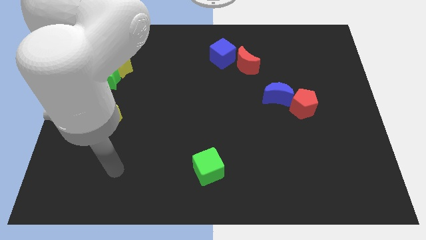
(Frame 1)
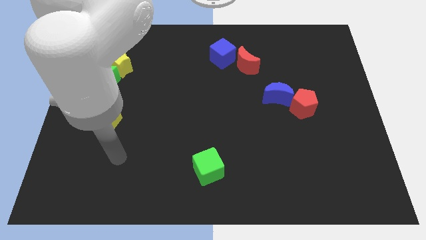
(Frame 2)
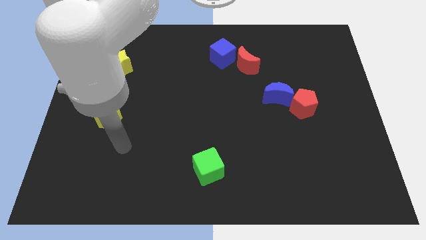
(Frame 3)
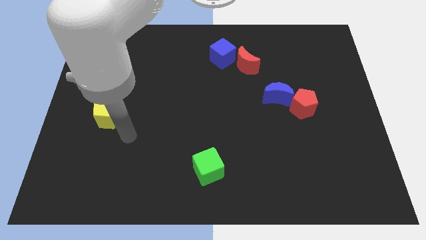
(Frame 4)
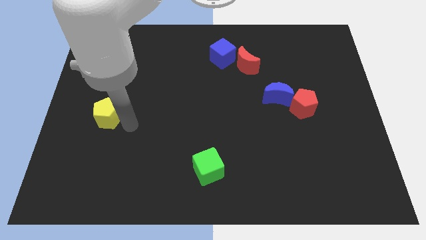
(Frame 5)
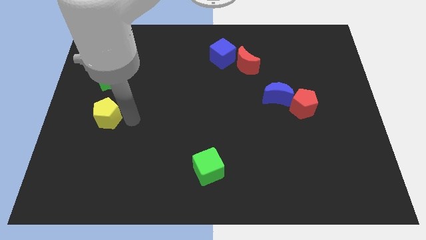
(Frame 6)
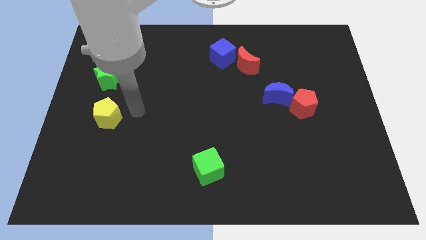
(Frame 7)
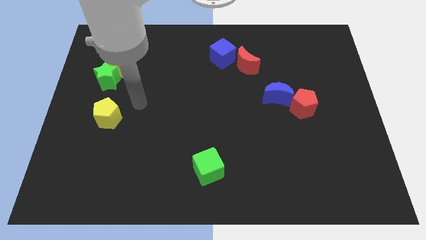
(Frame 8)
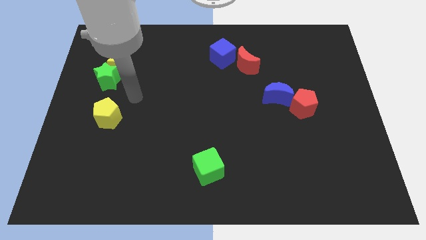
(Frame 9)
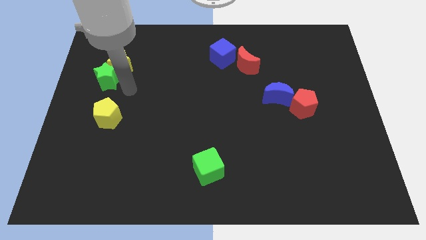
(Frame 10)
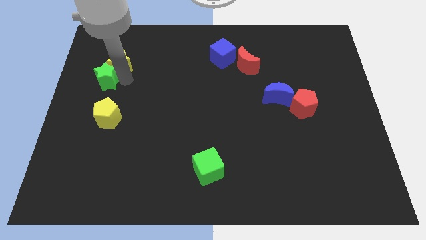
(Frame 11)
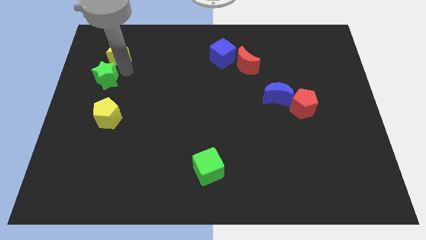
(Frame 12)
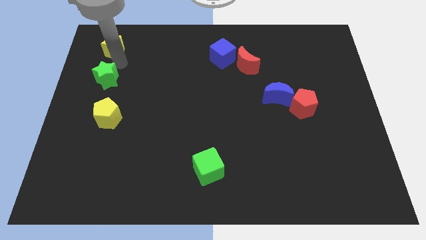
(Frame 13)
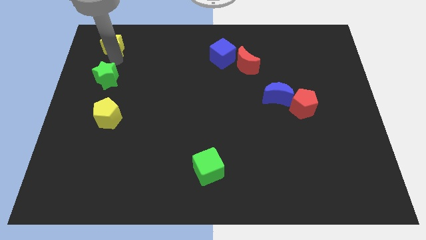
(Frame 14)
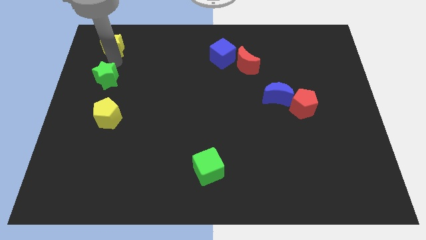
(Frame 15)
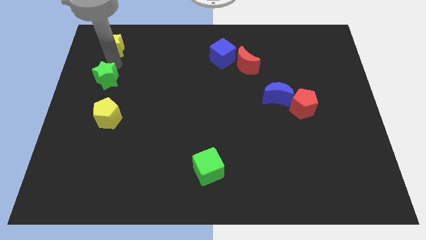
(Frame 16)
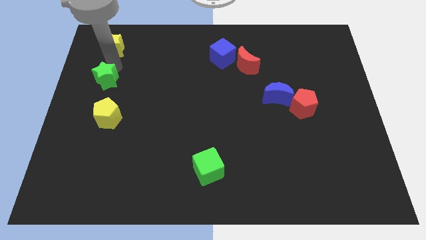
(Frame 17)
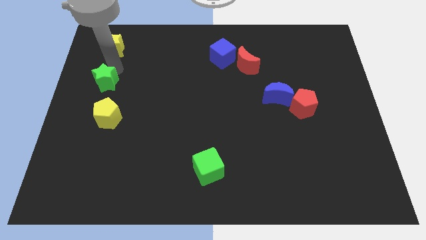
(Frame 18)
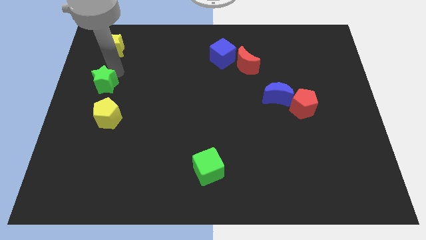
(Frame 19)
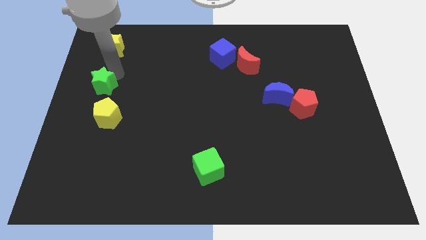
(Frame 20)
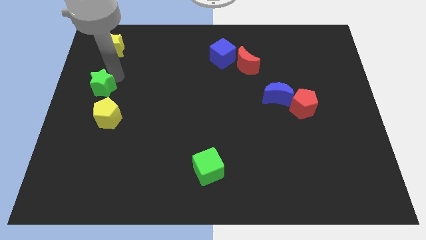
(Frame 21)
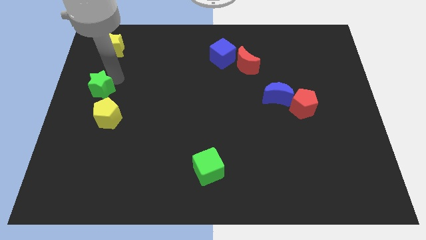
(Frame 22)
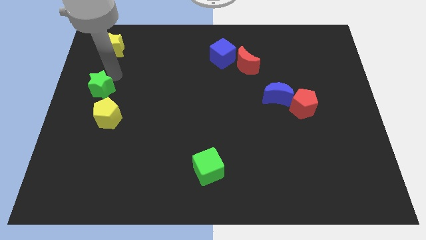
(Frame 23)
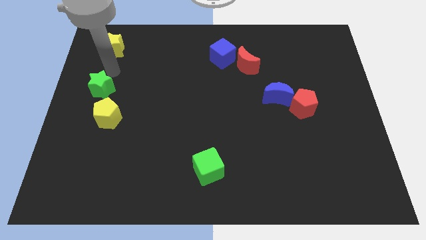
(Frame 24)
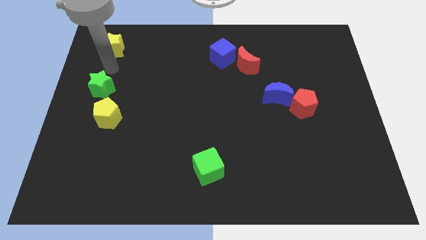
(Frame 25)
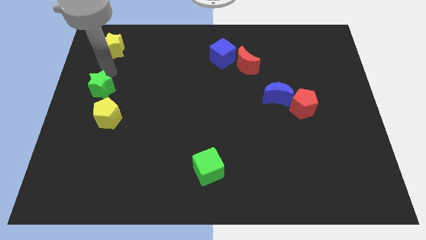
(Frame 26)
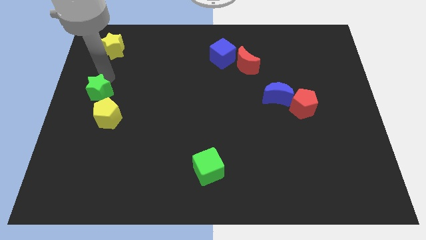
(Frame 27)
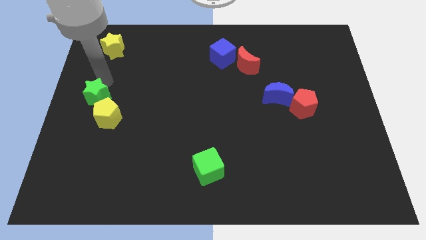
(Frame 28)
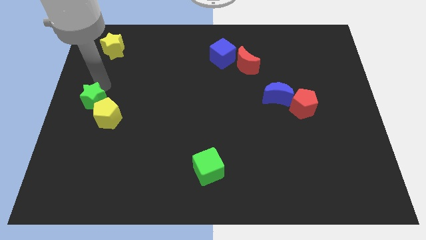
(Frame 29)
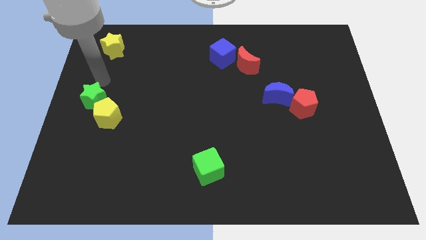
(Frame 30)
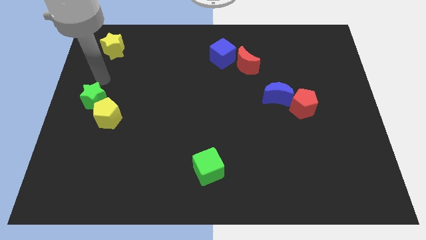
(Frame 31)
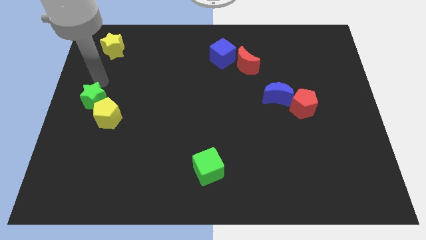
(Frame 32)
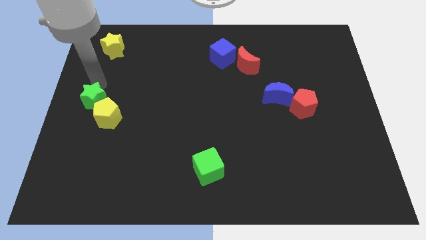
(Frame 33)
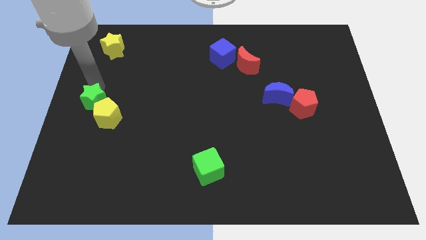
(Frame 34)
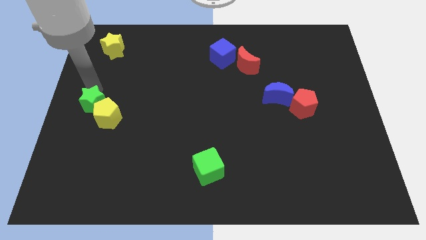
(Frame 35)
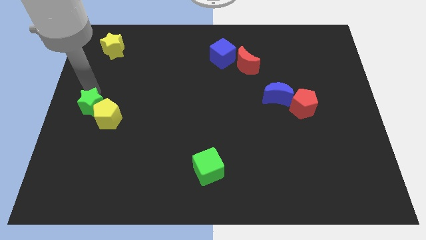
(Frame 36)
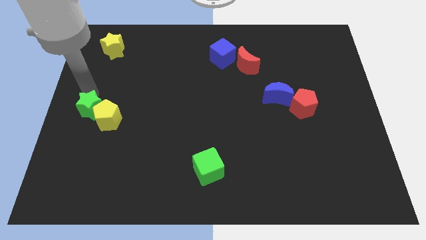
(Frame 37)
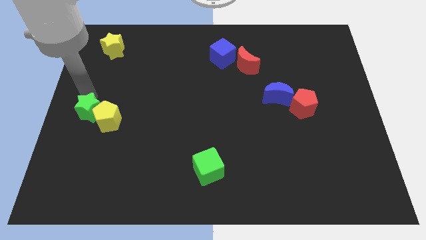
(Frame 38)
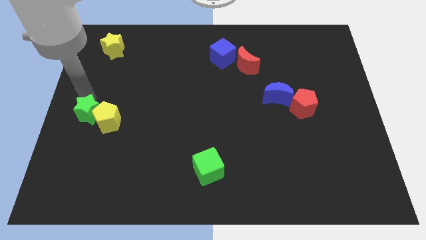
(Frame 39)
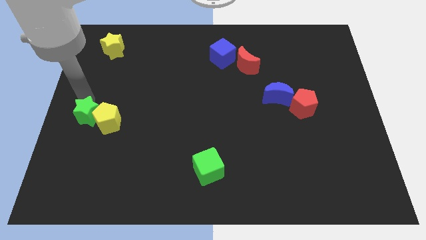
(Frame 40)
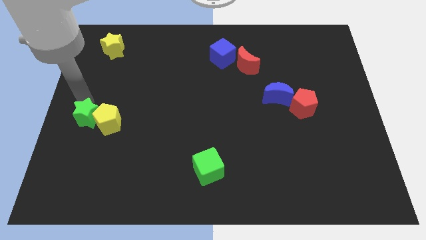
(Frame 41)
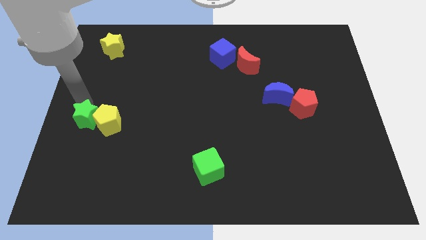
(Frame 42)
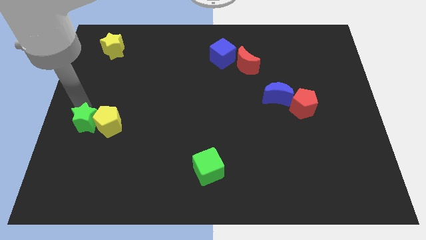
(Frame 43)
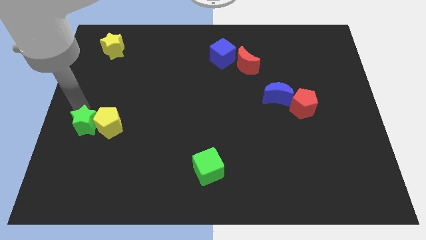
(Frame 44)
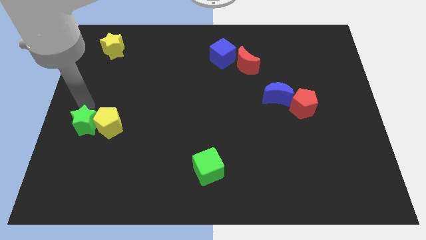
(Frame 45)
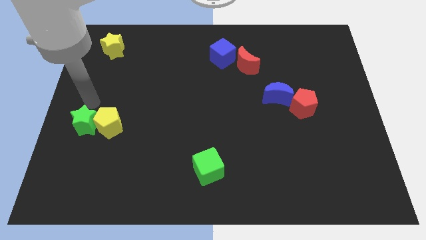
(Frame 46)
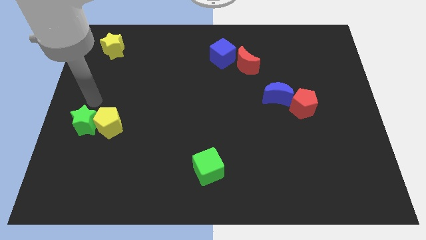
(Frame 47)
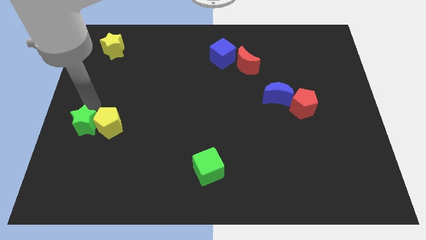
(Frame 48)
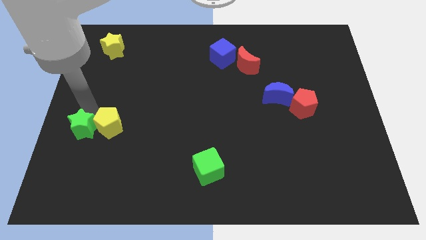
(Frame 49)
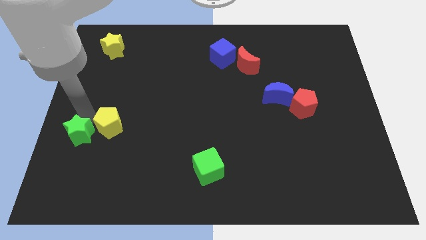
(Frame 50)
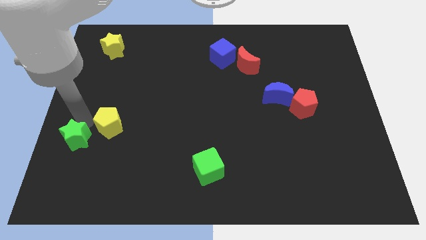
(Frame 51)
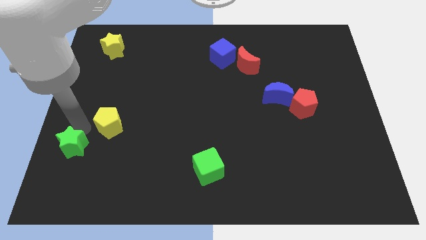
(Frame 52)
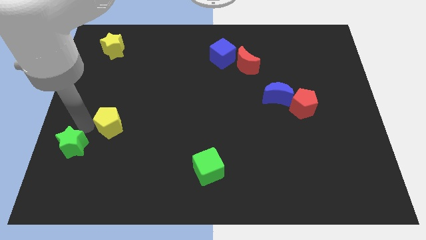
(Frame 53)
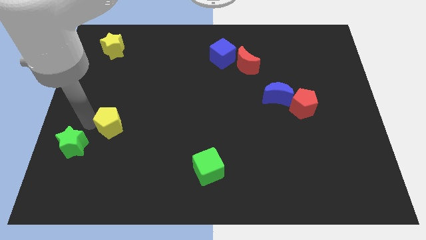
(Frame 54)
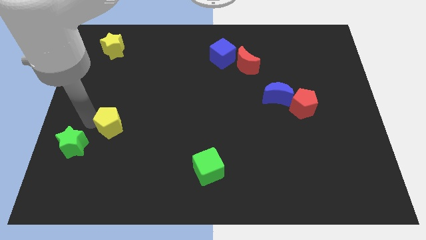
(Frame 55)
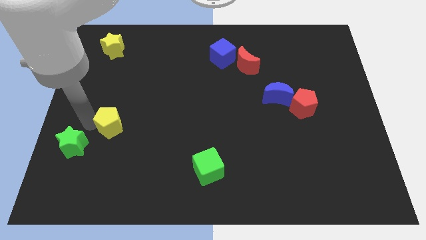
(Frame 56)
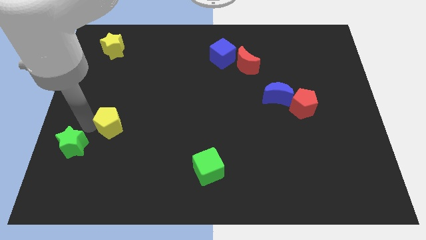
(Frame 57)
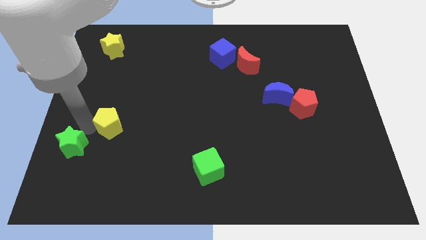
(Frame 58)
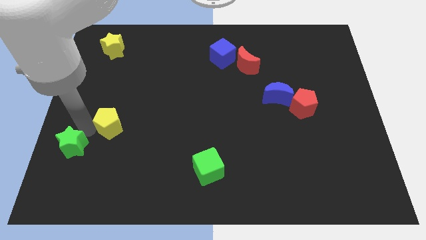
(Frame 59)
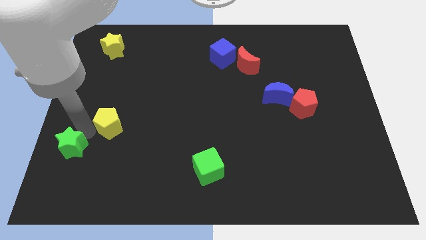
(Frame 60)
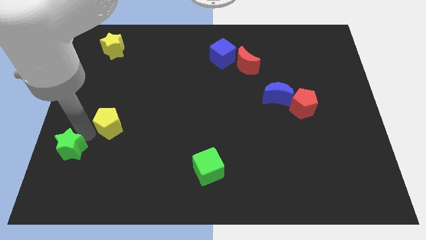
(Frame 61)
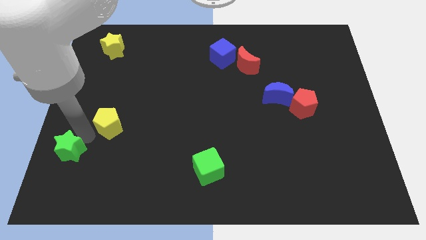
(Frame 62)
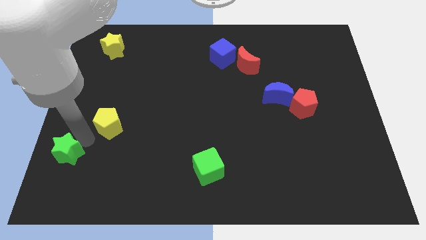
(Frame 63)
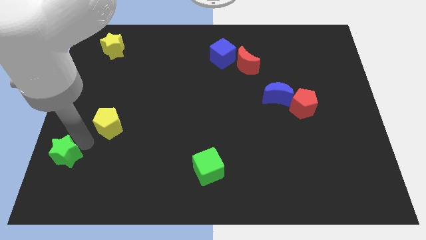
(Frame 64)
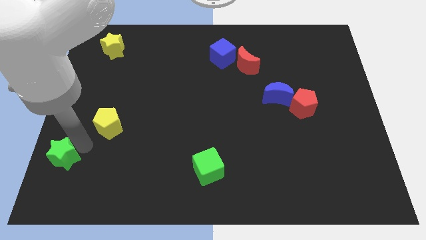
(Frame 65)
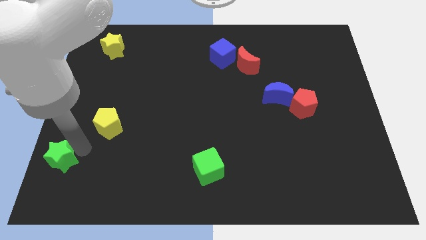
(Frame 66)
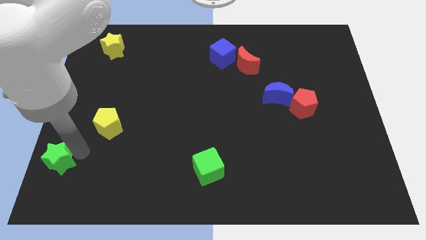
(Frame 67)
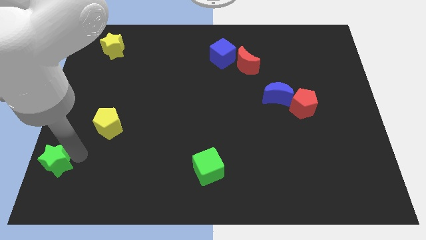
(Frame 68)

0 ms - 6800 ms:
push the green star to the bottom left corner
